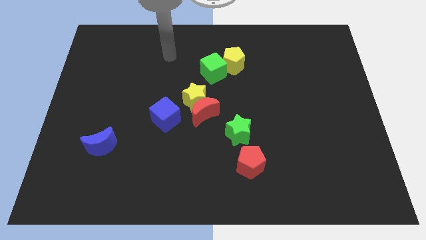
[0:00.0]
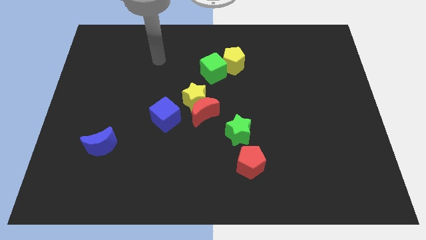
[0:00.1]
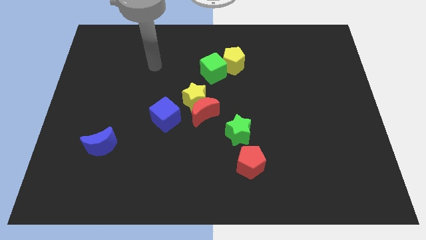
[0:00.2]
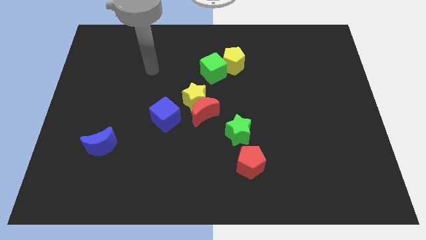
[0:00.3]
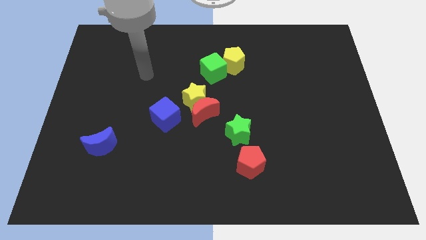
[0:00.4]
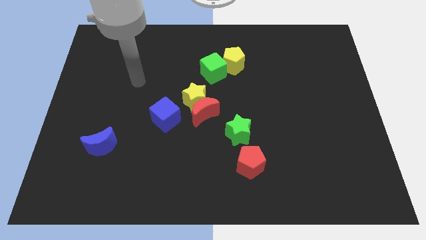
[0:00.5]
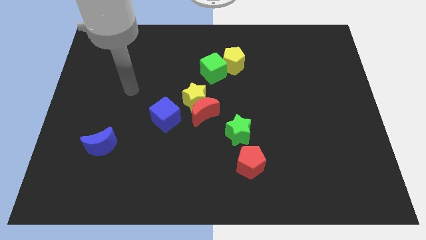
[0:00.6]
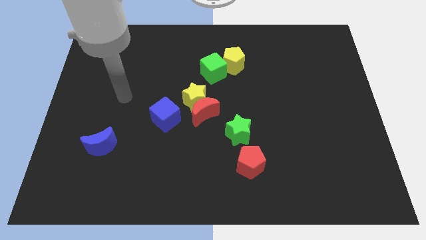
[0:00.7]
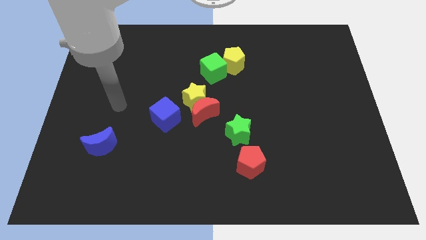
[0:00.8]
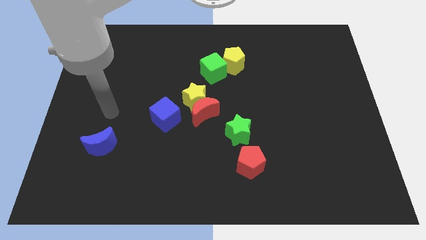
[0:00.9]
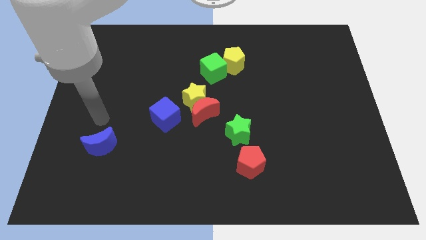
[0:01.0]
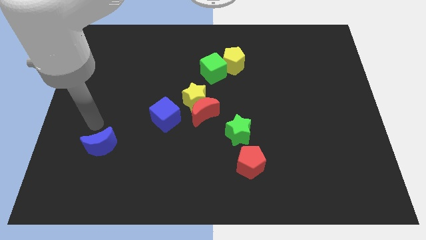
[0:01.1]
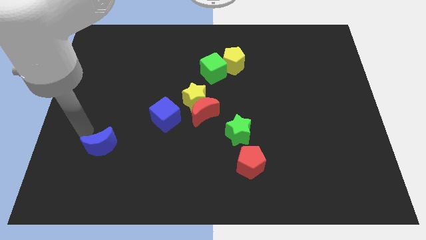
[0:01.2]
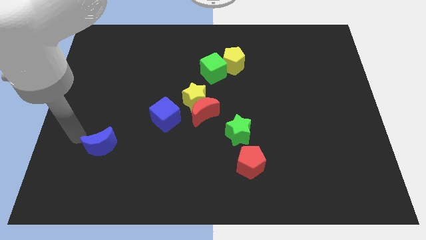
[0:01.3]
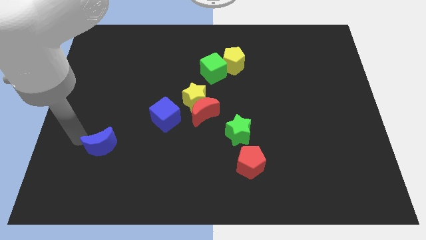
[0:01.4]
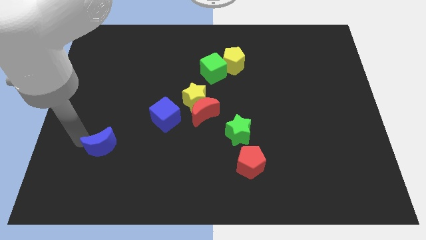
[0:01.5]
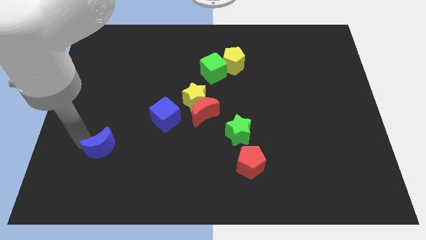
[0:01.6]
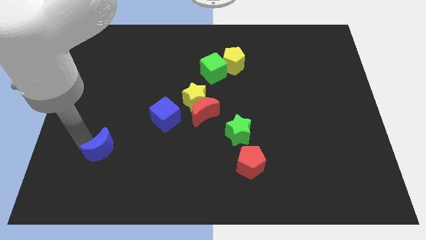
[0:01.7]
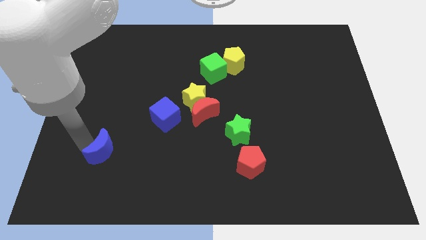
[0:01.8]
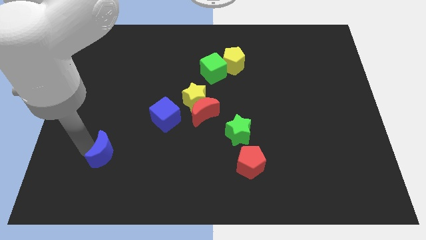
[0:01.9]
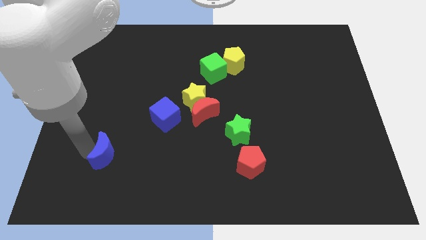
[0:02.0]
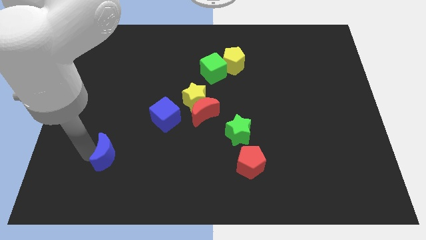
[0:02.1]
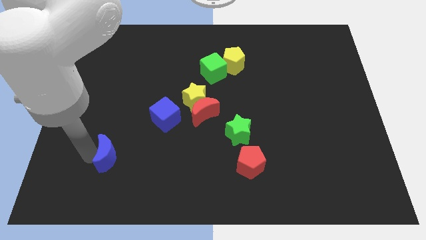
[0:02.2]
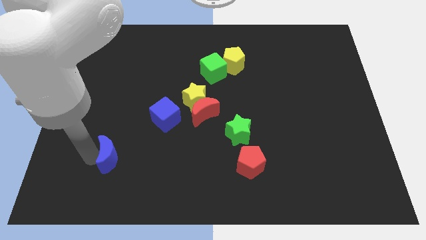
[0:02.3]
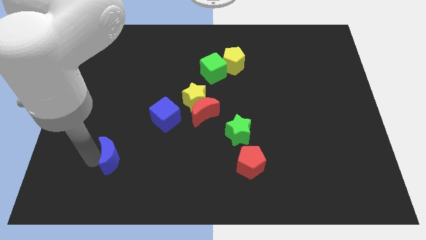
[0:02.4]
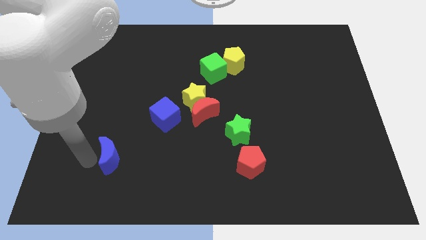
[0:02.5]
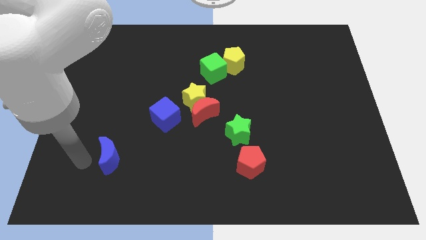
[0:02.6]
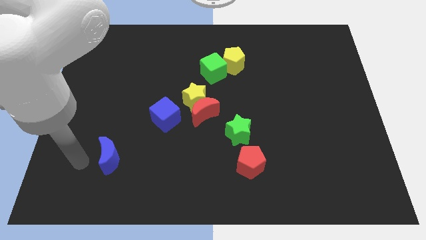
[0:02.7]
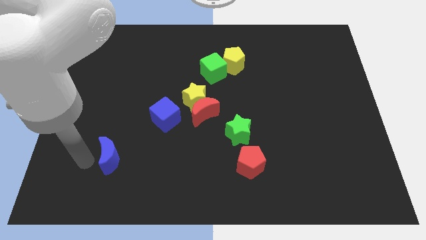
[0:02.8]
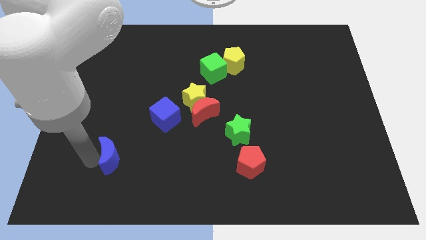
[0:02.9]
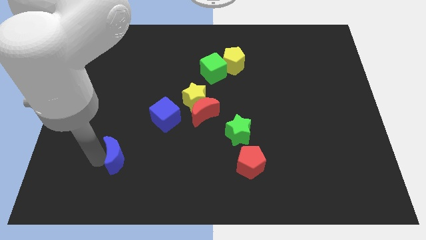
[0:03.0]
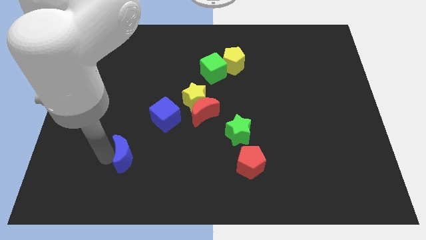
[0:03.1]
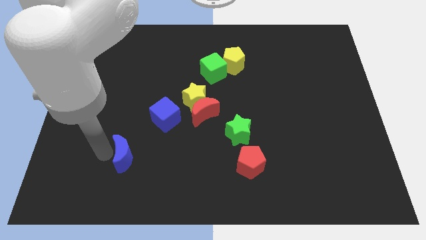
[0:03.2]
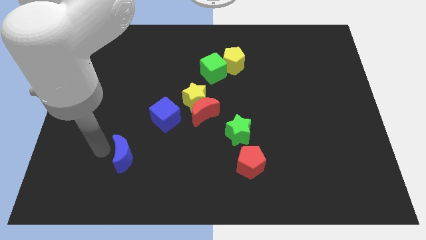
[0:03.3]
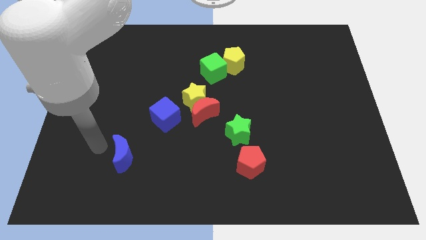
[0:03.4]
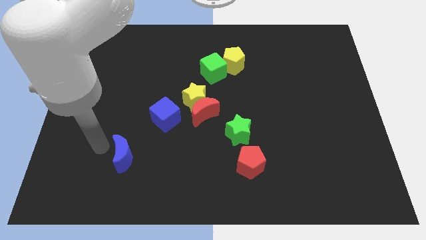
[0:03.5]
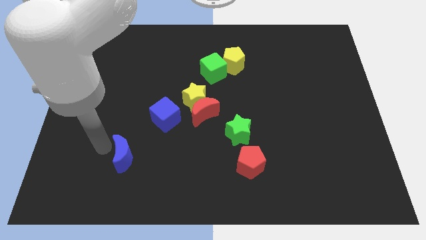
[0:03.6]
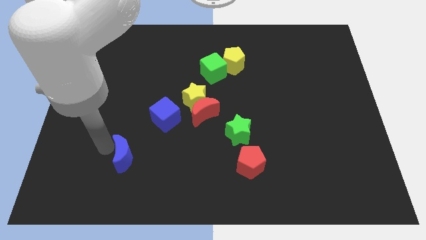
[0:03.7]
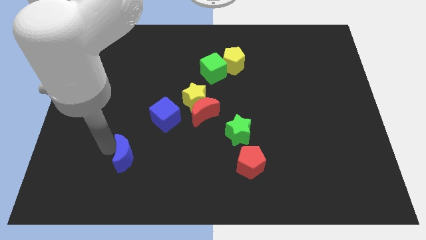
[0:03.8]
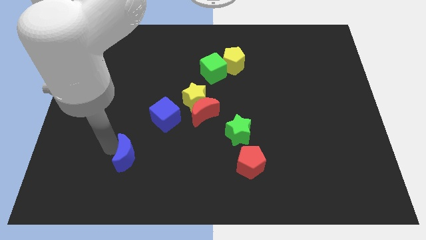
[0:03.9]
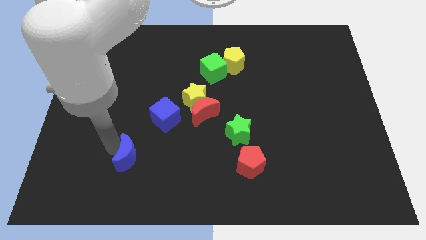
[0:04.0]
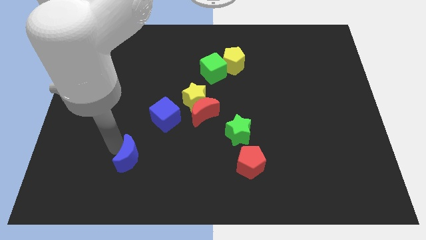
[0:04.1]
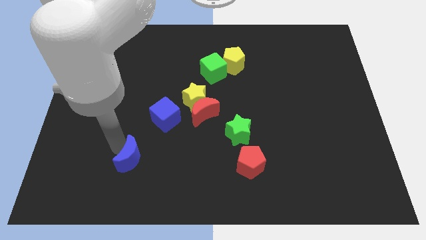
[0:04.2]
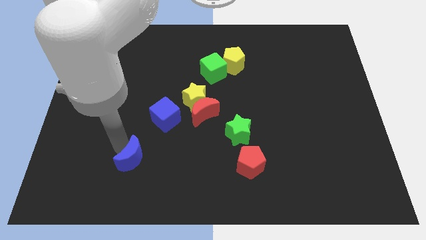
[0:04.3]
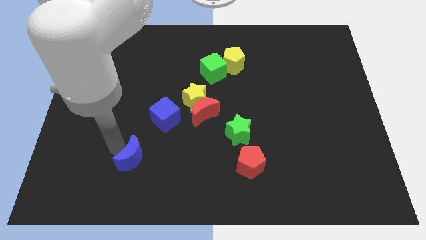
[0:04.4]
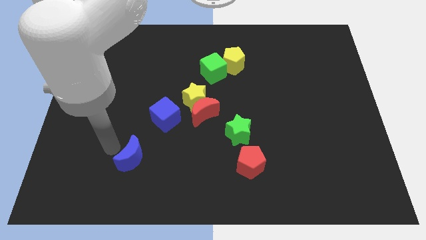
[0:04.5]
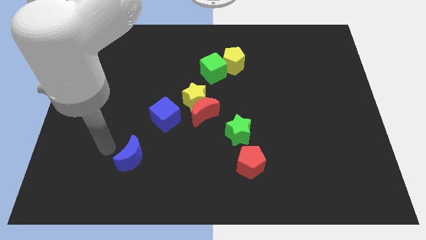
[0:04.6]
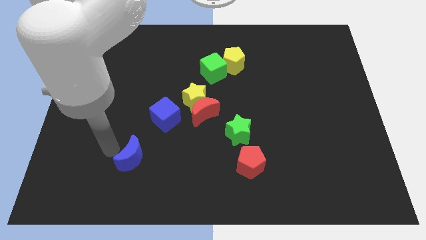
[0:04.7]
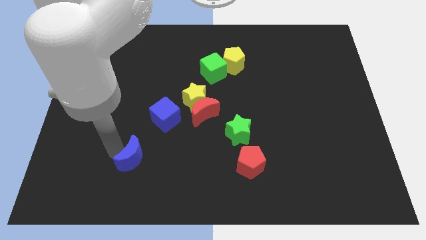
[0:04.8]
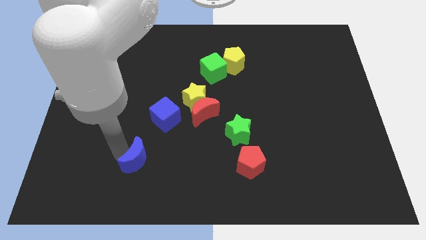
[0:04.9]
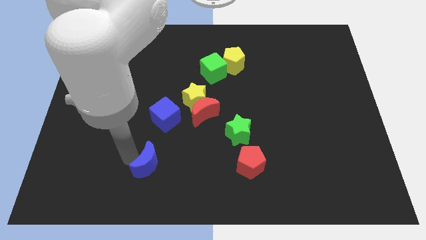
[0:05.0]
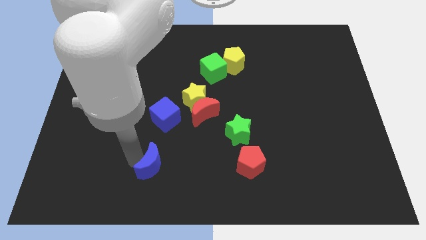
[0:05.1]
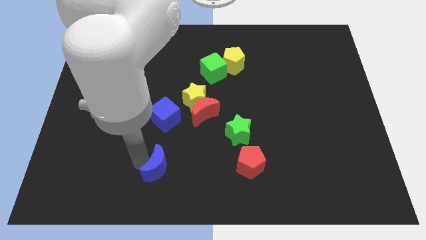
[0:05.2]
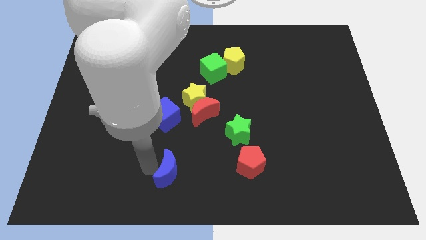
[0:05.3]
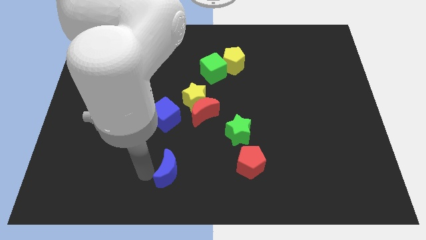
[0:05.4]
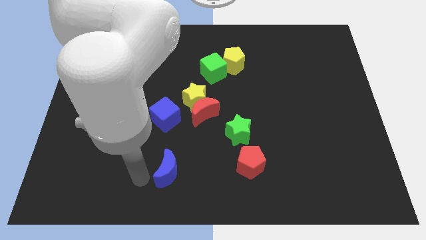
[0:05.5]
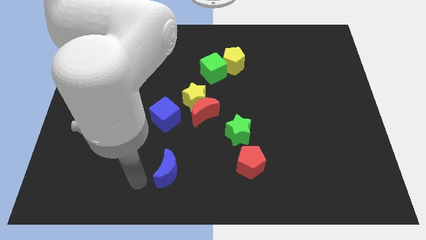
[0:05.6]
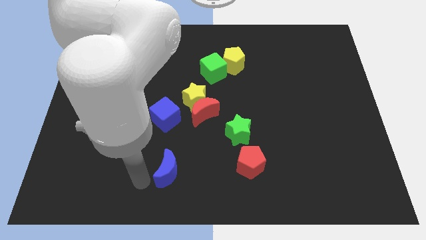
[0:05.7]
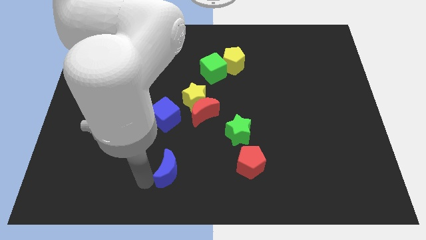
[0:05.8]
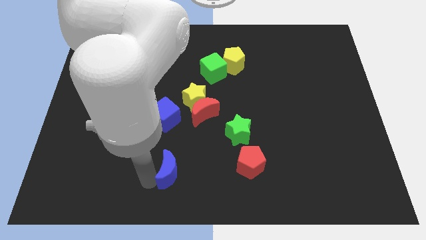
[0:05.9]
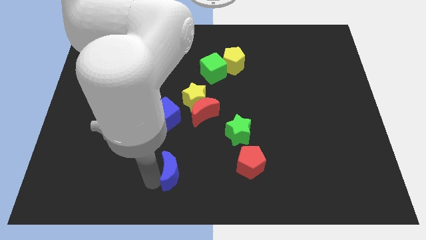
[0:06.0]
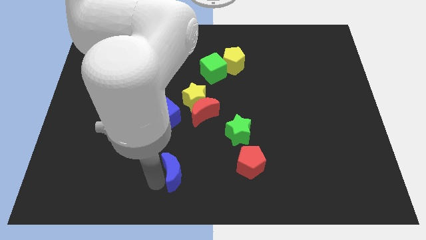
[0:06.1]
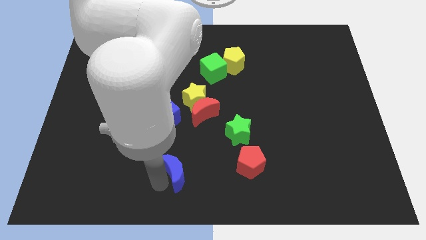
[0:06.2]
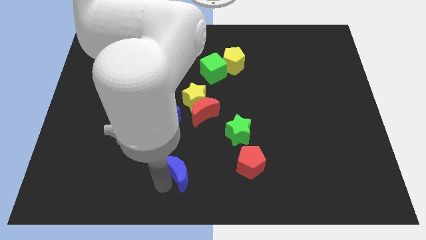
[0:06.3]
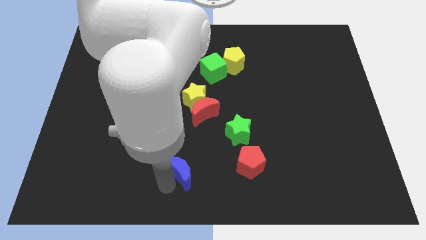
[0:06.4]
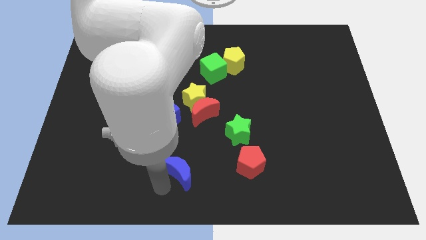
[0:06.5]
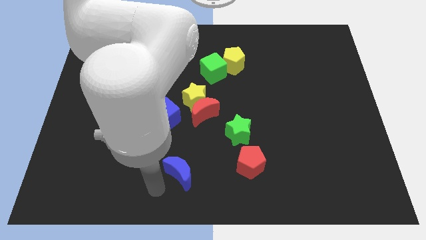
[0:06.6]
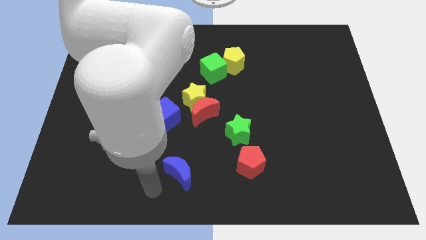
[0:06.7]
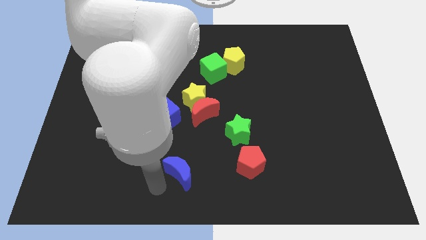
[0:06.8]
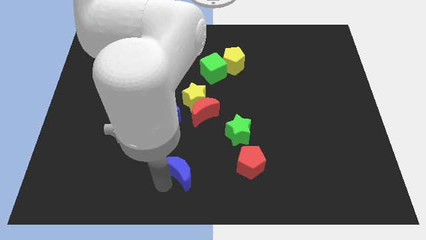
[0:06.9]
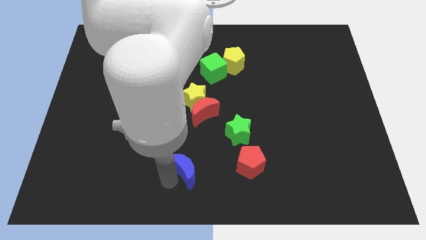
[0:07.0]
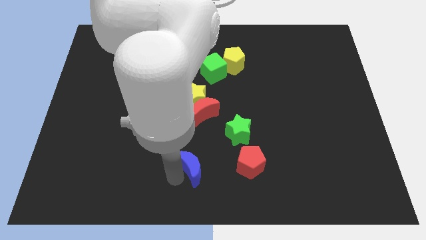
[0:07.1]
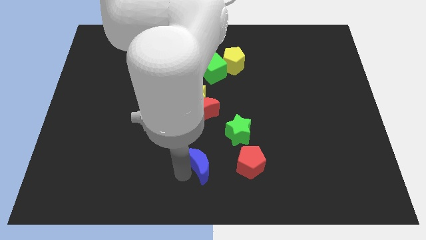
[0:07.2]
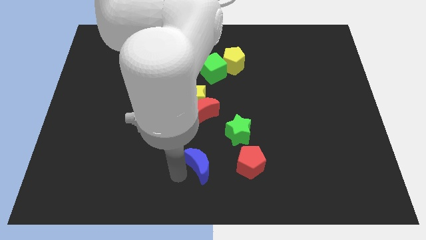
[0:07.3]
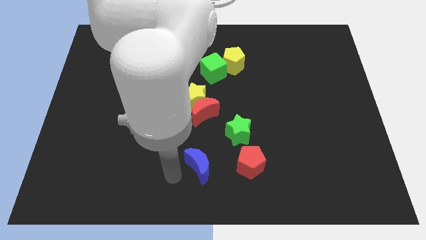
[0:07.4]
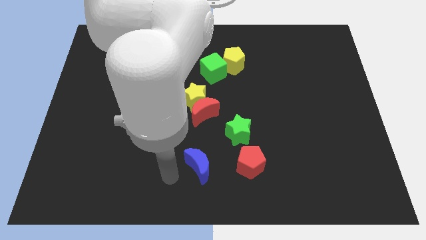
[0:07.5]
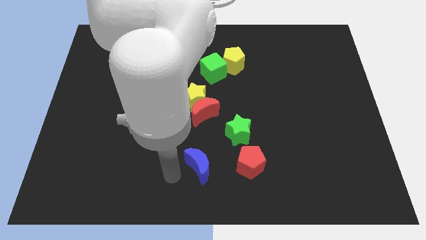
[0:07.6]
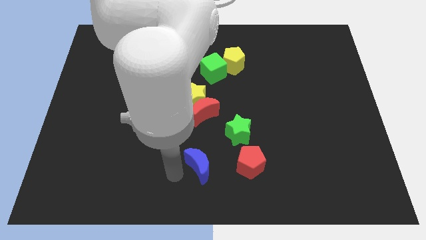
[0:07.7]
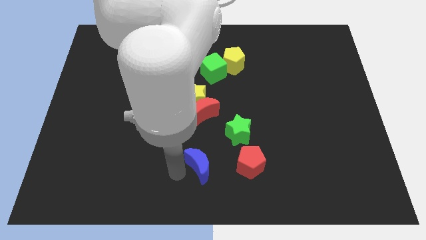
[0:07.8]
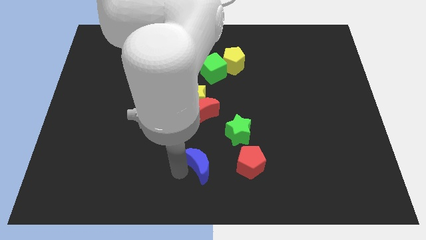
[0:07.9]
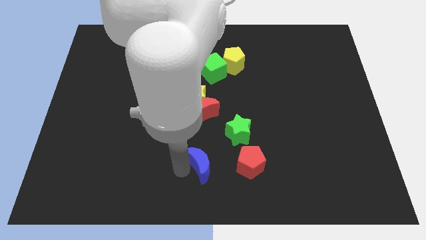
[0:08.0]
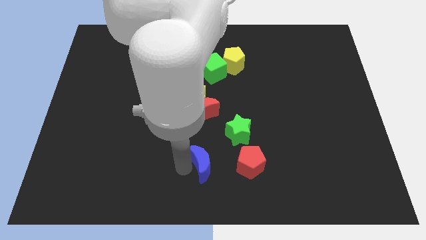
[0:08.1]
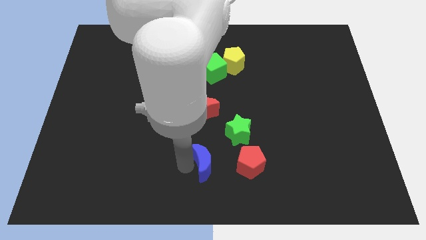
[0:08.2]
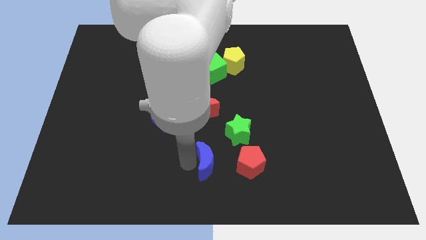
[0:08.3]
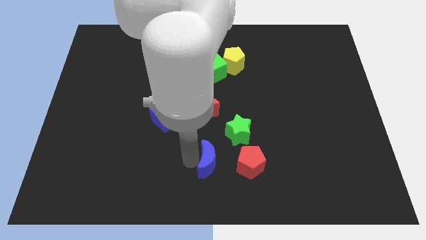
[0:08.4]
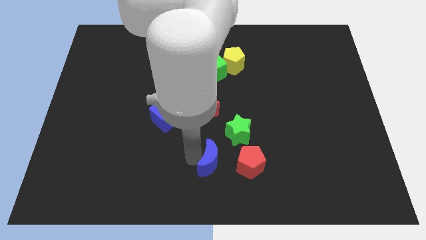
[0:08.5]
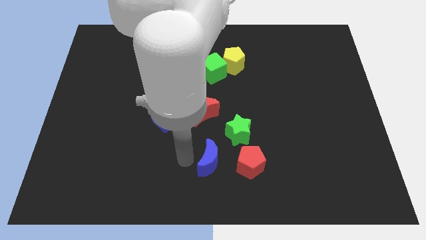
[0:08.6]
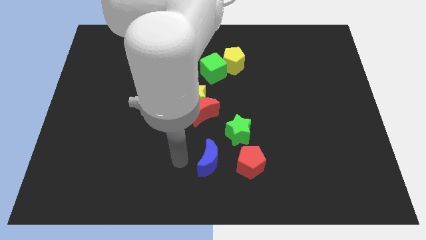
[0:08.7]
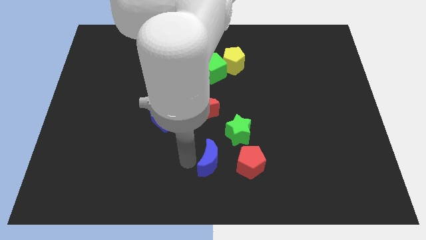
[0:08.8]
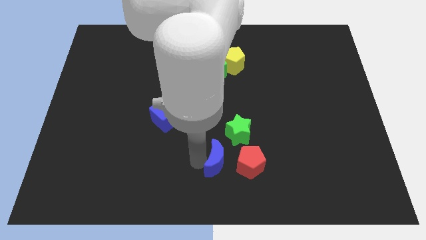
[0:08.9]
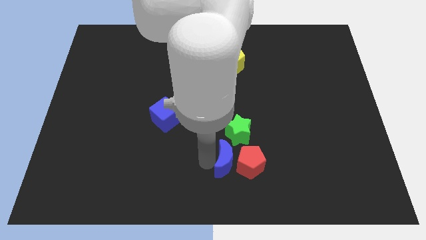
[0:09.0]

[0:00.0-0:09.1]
slide the blue moon next to the red pentagon
